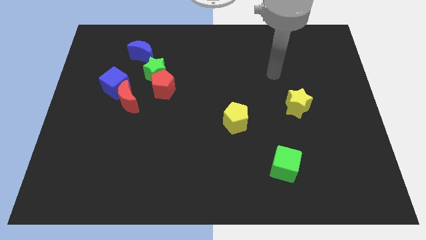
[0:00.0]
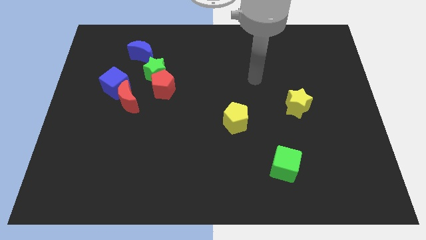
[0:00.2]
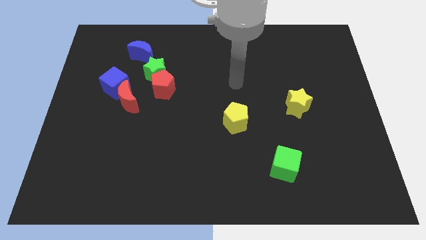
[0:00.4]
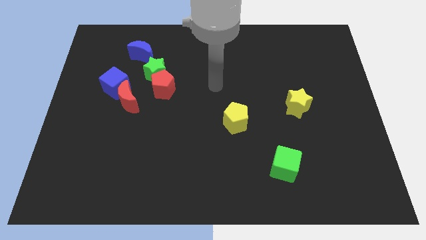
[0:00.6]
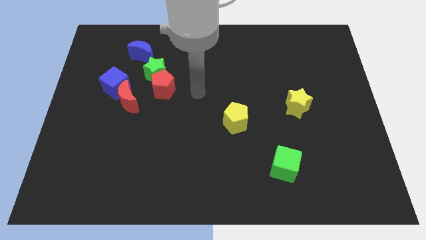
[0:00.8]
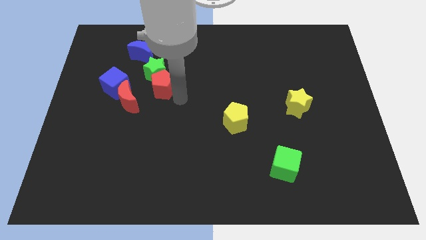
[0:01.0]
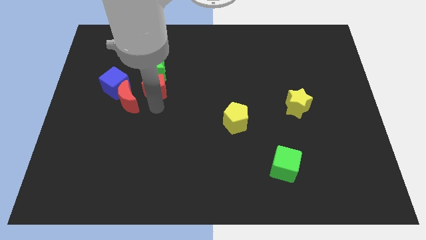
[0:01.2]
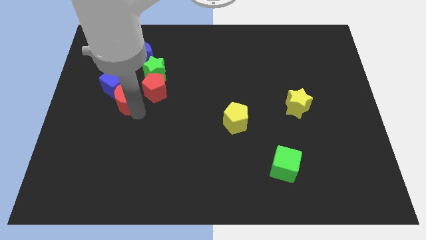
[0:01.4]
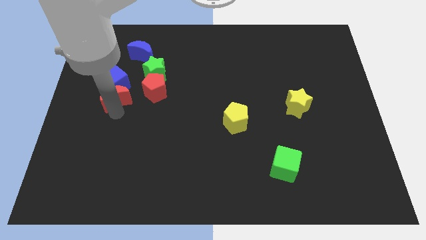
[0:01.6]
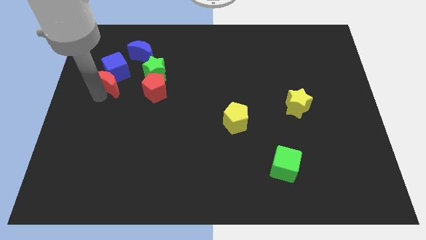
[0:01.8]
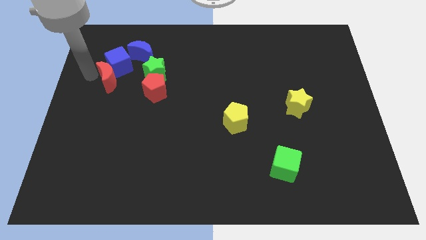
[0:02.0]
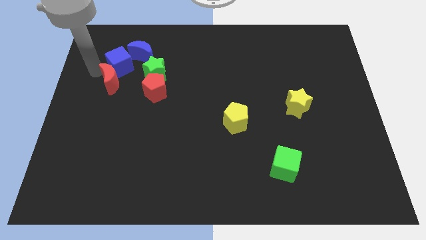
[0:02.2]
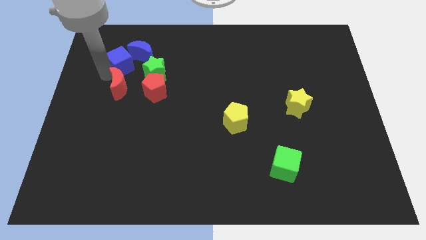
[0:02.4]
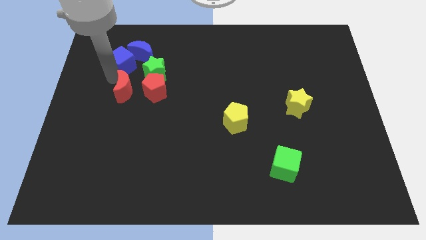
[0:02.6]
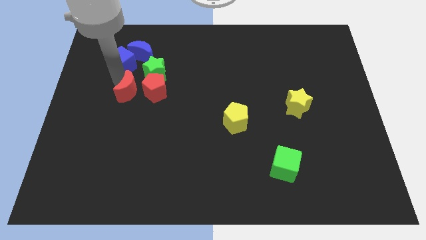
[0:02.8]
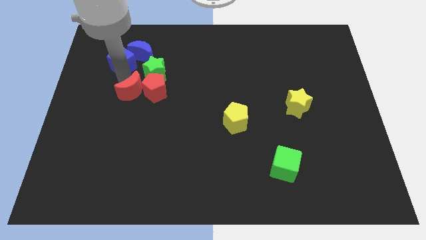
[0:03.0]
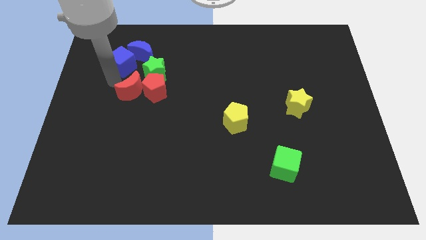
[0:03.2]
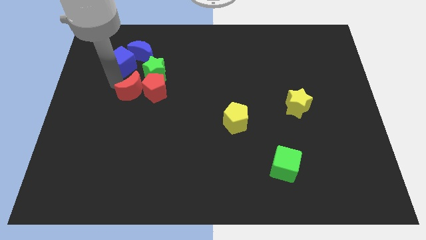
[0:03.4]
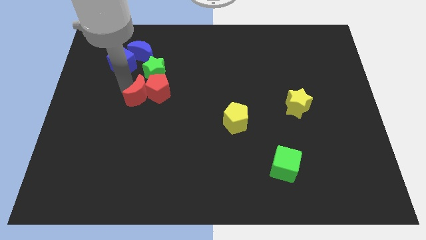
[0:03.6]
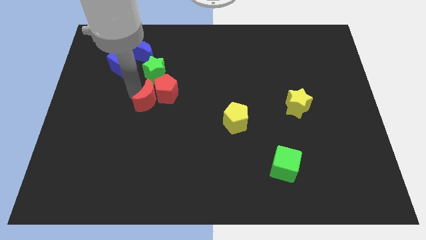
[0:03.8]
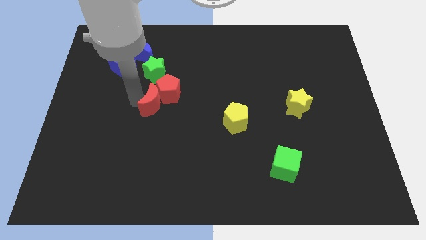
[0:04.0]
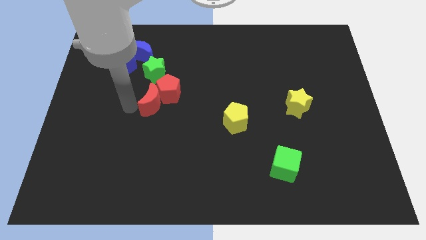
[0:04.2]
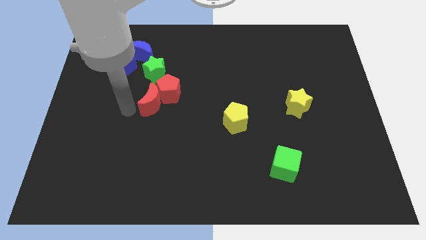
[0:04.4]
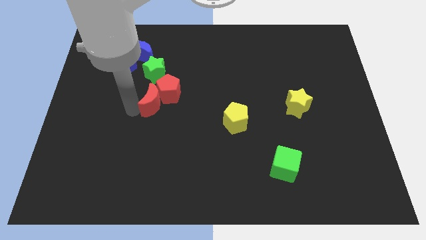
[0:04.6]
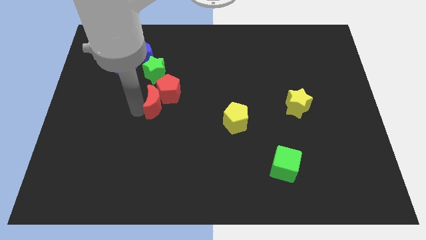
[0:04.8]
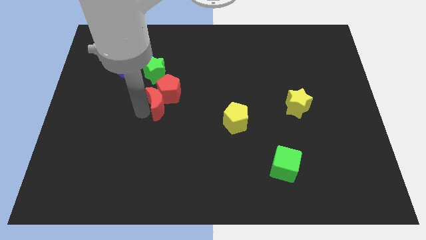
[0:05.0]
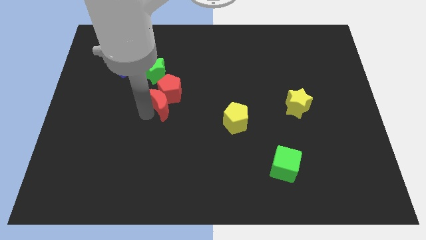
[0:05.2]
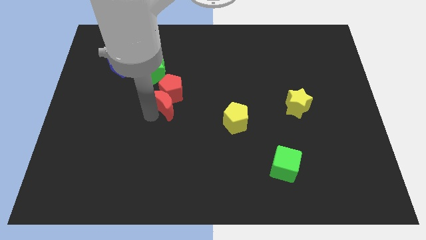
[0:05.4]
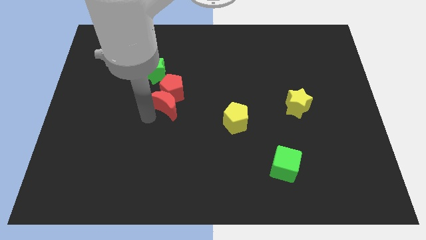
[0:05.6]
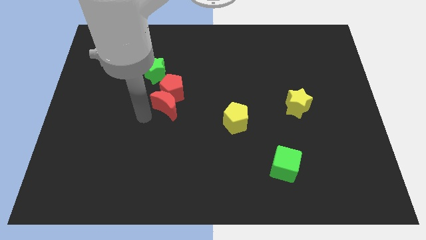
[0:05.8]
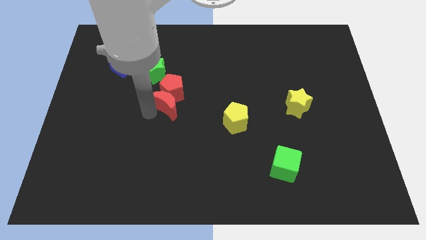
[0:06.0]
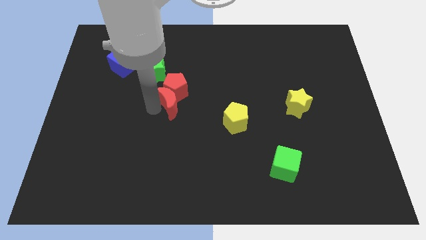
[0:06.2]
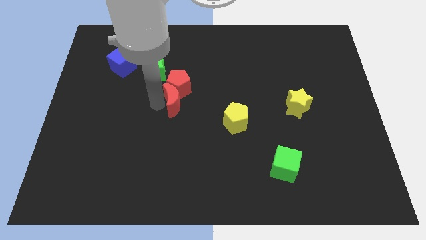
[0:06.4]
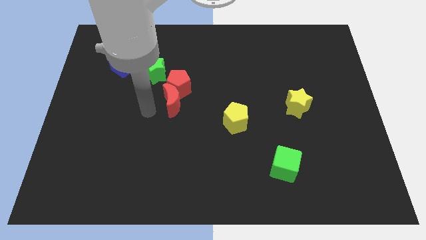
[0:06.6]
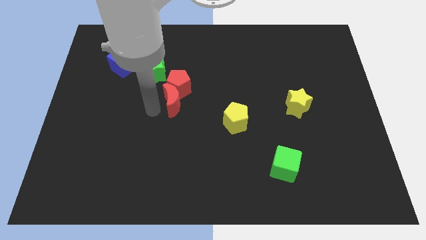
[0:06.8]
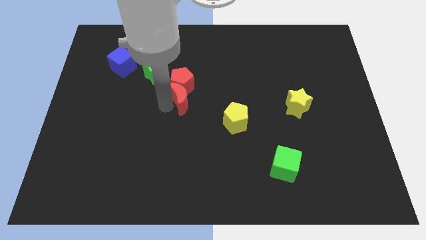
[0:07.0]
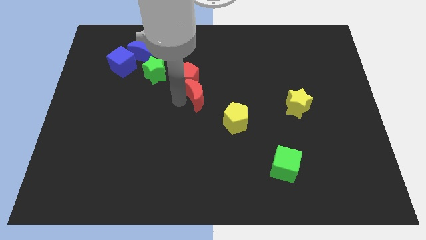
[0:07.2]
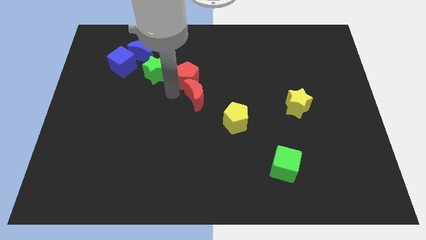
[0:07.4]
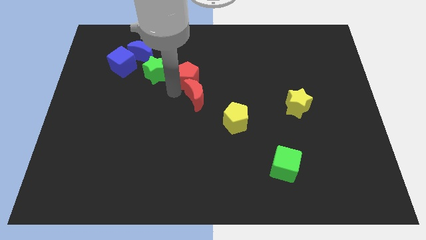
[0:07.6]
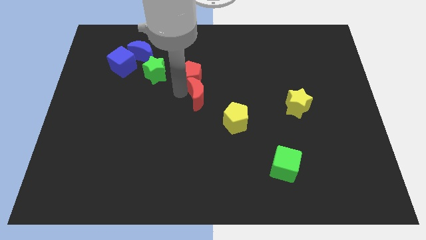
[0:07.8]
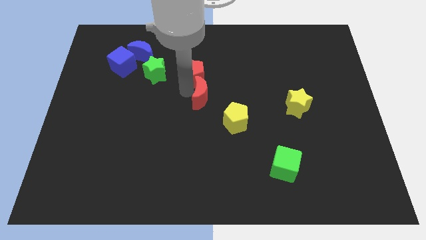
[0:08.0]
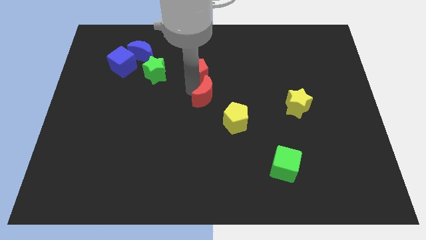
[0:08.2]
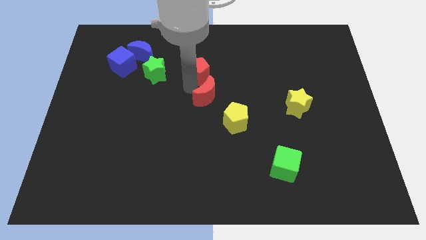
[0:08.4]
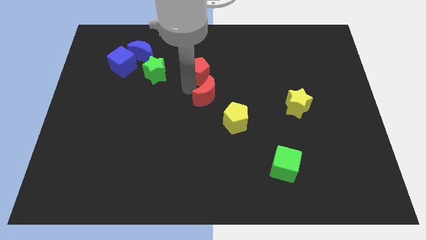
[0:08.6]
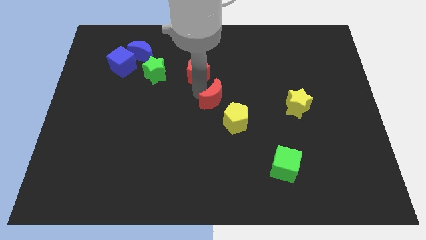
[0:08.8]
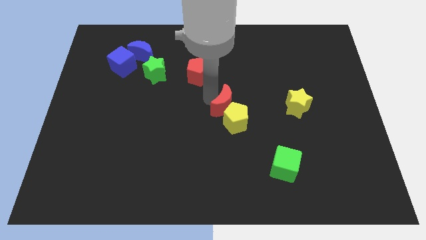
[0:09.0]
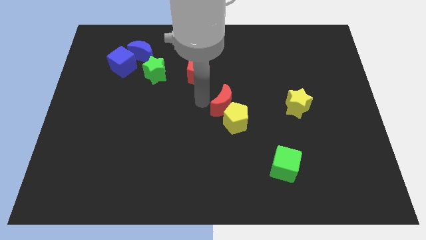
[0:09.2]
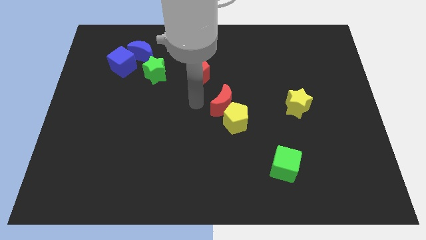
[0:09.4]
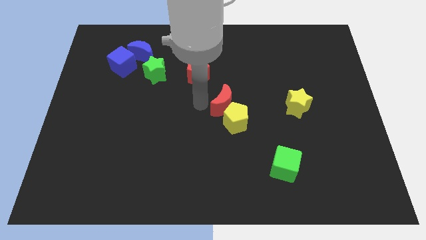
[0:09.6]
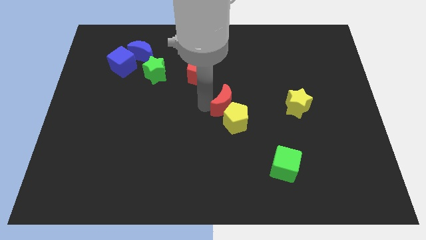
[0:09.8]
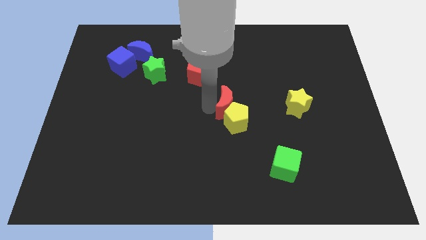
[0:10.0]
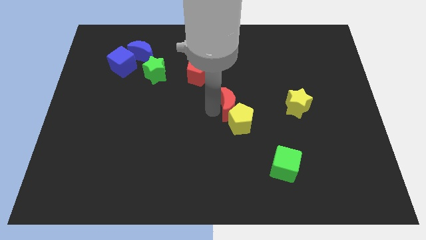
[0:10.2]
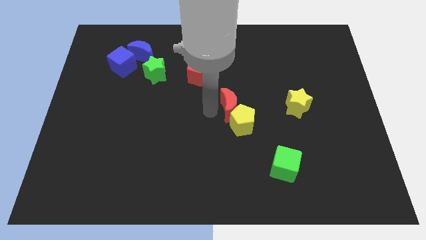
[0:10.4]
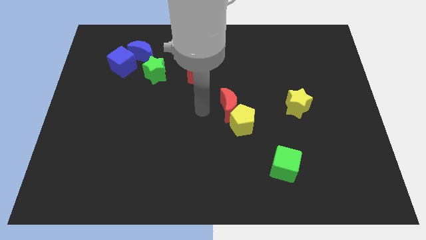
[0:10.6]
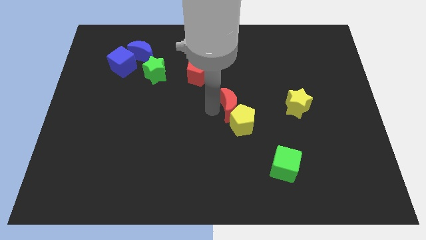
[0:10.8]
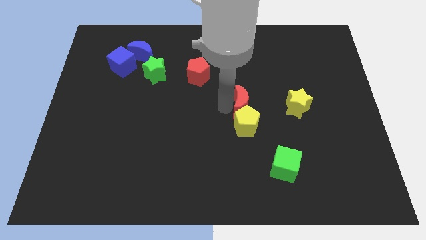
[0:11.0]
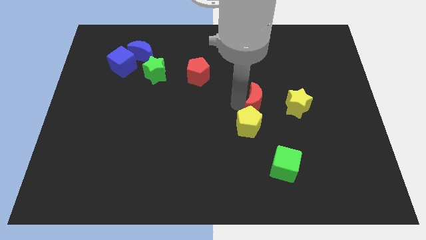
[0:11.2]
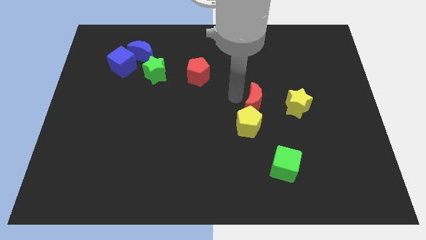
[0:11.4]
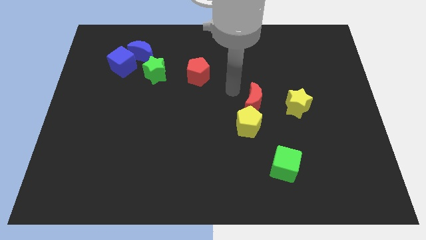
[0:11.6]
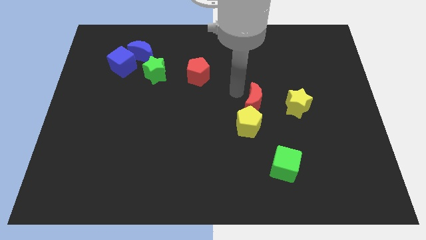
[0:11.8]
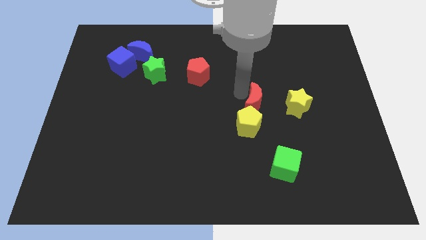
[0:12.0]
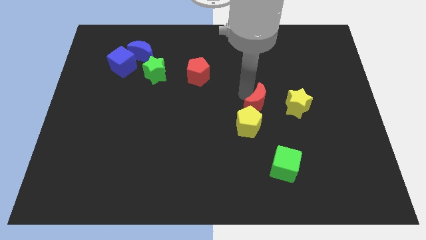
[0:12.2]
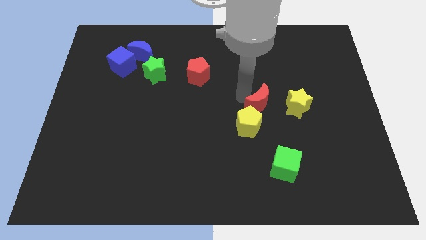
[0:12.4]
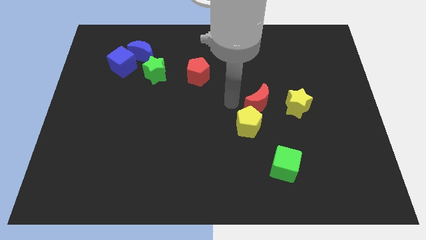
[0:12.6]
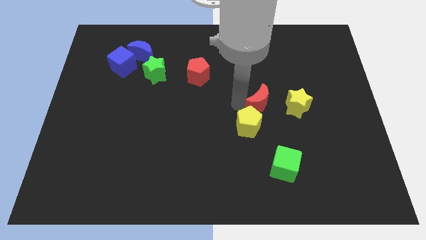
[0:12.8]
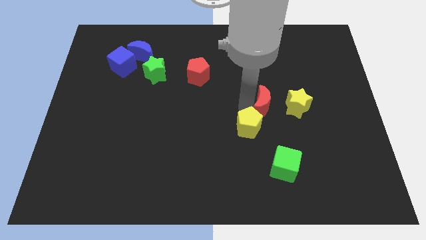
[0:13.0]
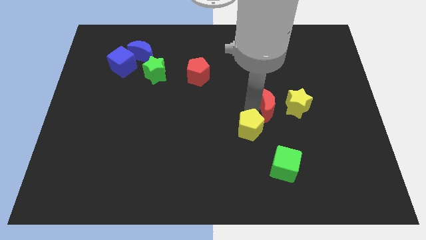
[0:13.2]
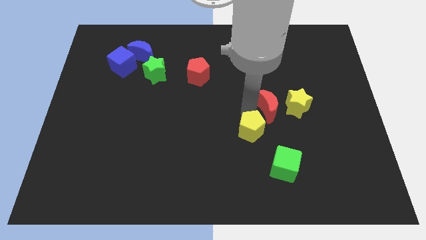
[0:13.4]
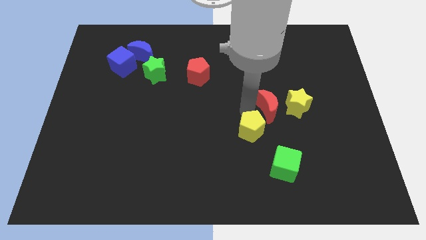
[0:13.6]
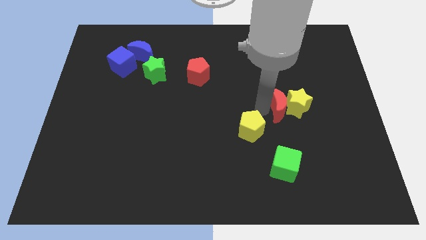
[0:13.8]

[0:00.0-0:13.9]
move the red moon close to the yellow star

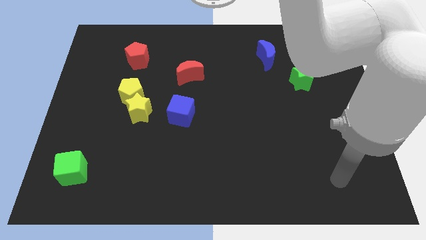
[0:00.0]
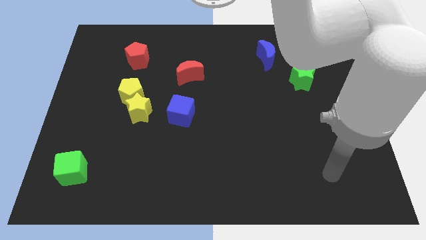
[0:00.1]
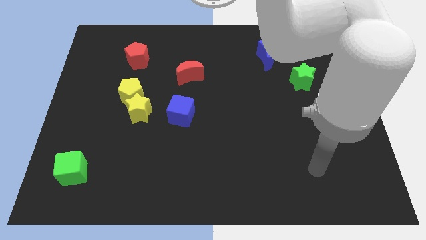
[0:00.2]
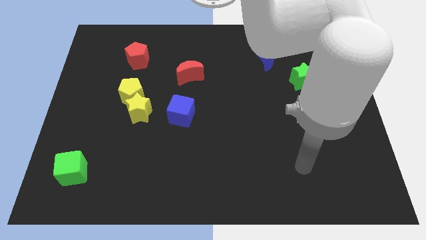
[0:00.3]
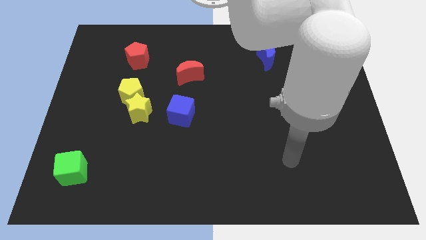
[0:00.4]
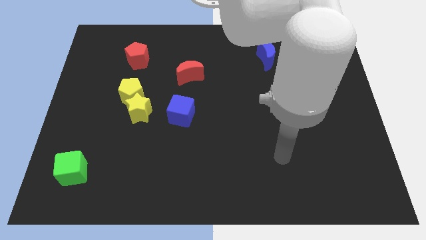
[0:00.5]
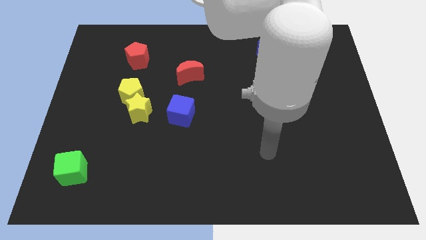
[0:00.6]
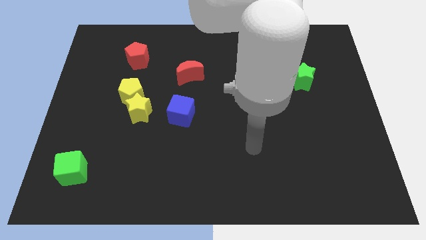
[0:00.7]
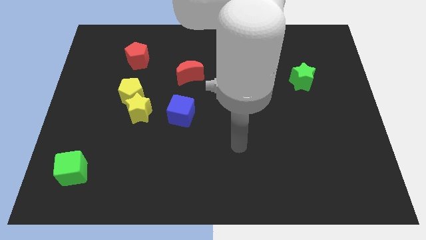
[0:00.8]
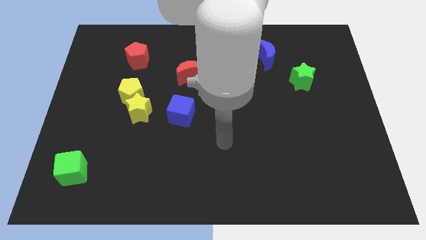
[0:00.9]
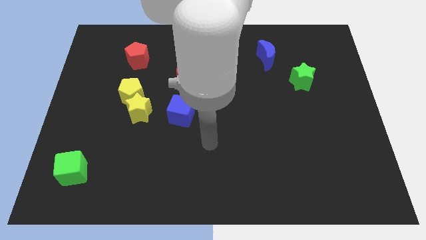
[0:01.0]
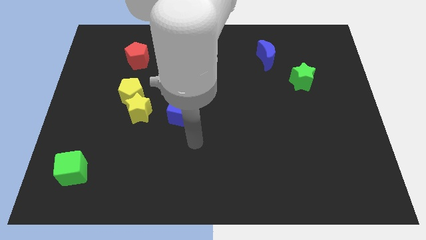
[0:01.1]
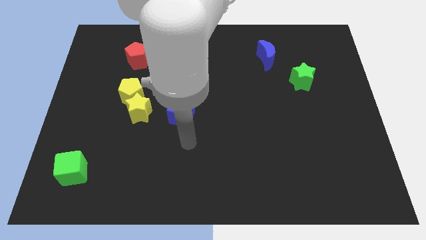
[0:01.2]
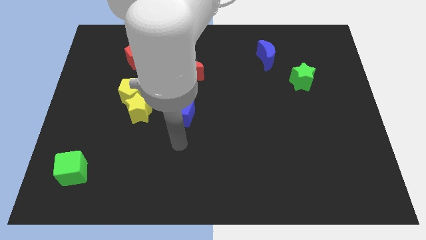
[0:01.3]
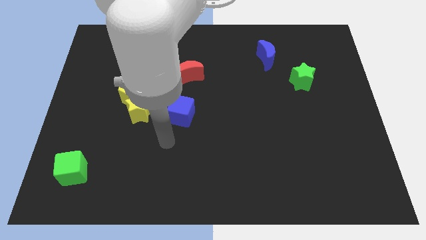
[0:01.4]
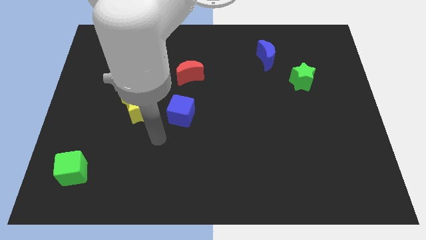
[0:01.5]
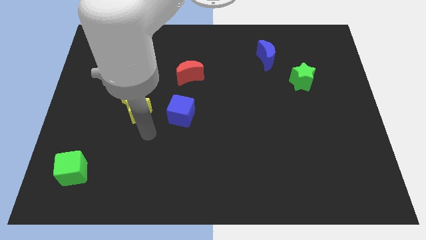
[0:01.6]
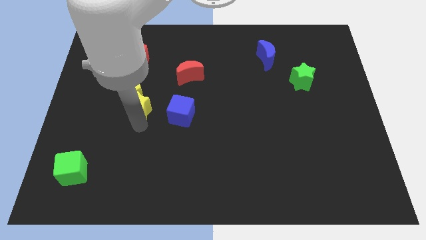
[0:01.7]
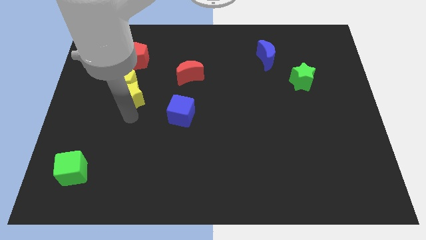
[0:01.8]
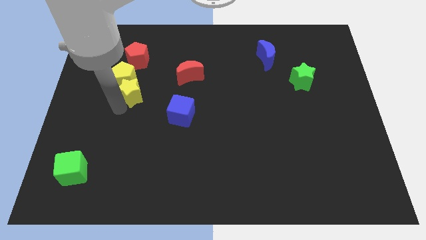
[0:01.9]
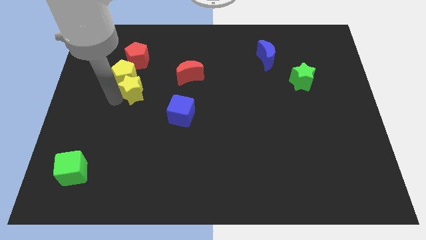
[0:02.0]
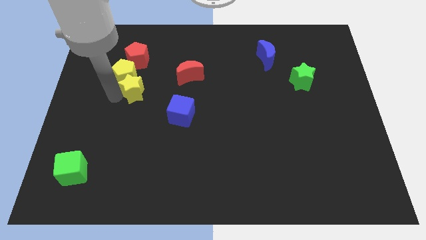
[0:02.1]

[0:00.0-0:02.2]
move the yellow pentagon next to the red pentagon
